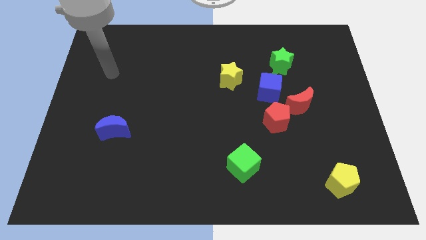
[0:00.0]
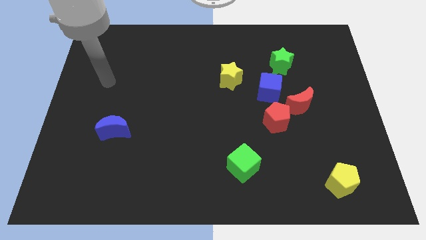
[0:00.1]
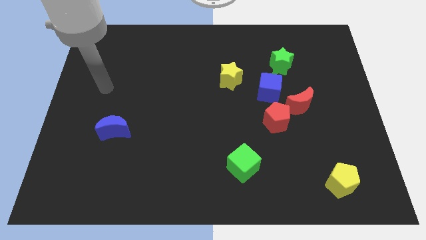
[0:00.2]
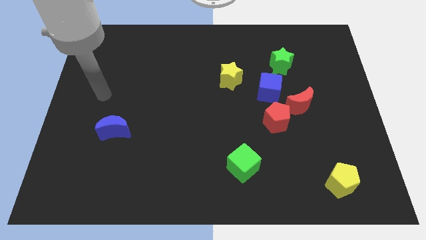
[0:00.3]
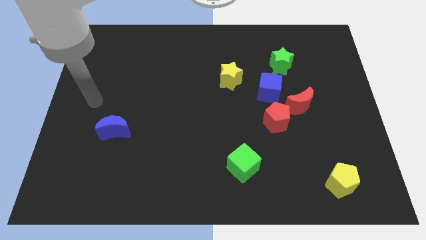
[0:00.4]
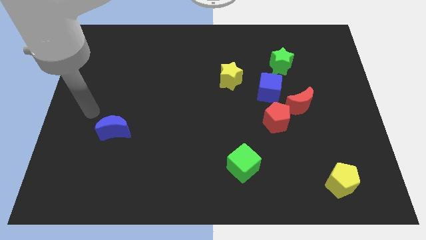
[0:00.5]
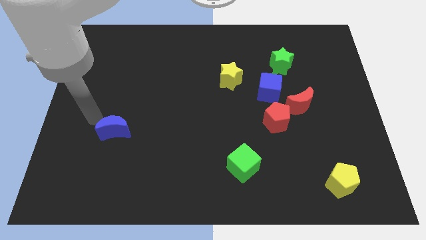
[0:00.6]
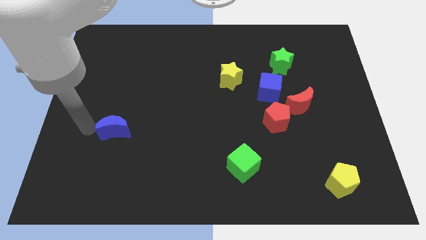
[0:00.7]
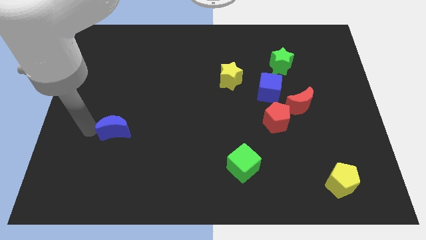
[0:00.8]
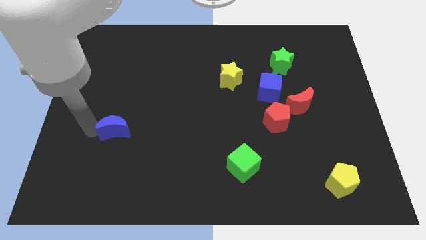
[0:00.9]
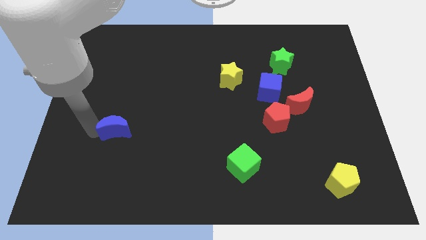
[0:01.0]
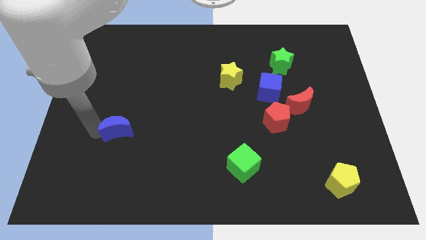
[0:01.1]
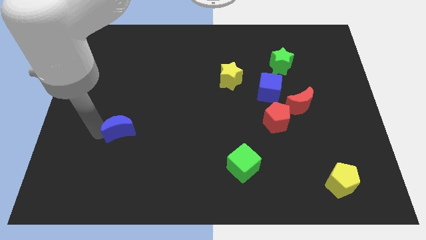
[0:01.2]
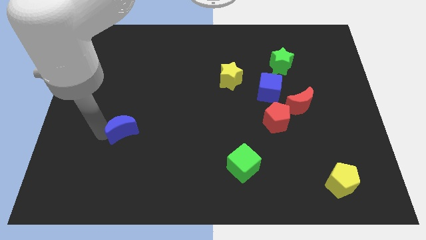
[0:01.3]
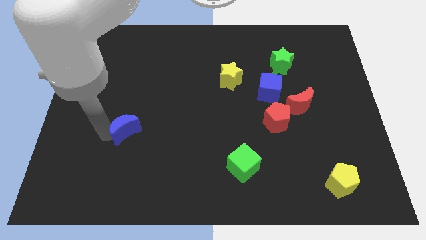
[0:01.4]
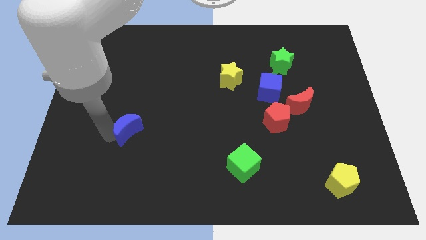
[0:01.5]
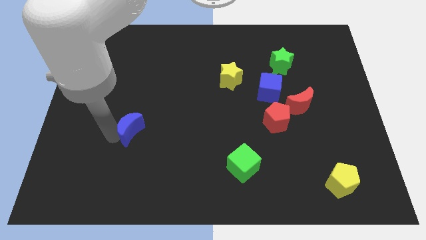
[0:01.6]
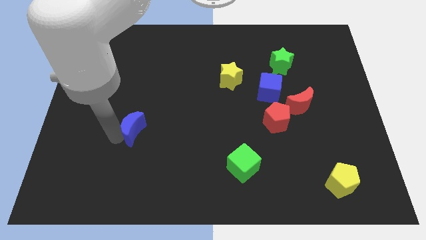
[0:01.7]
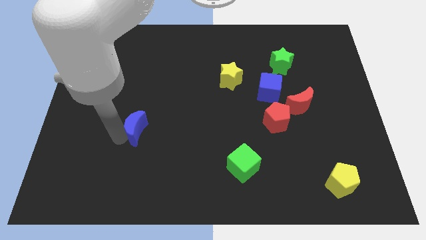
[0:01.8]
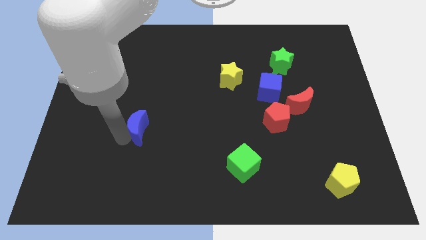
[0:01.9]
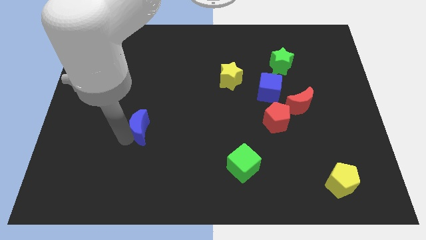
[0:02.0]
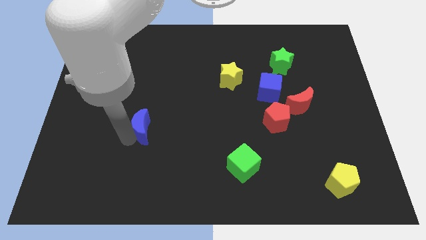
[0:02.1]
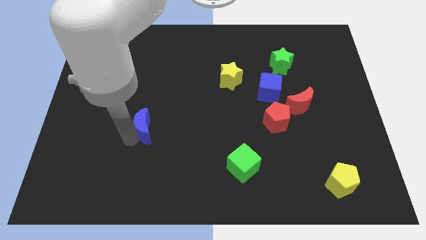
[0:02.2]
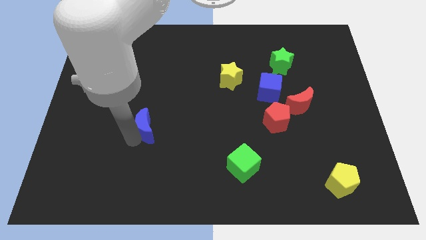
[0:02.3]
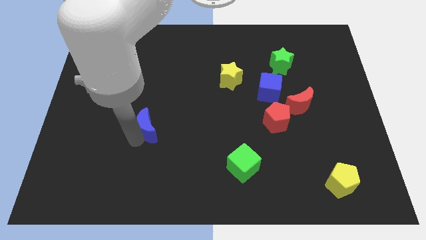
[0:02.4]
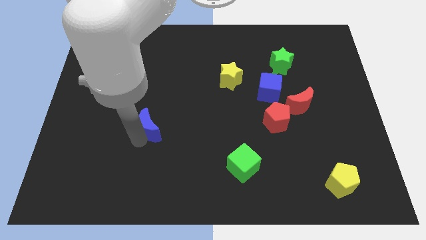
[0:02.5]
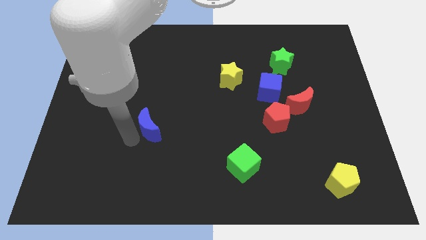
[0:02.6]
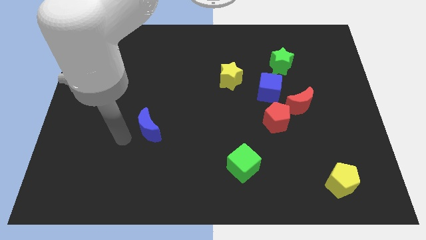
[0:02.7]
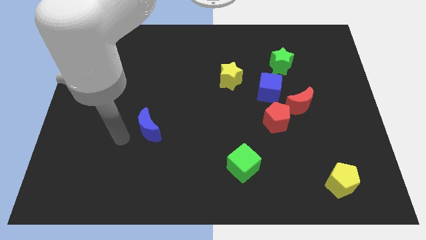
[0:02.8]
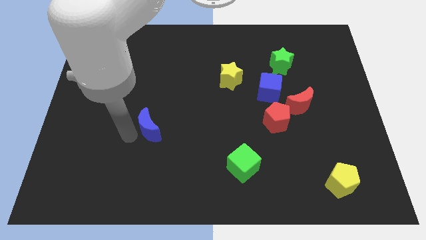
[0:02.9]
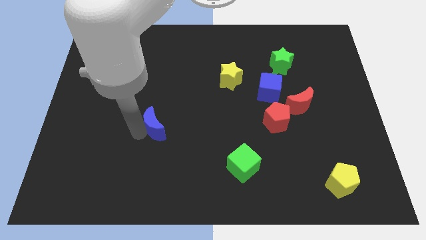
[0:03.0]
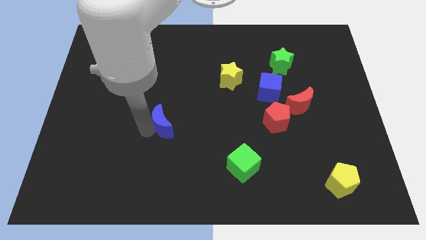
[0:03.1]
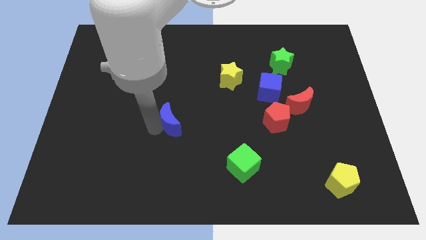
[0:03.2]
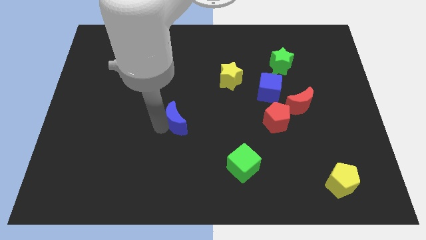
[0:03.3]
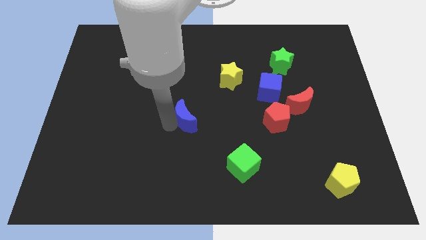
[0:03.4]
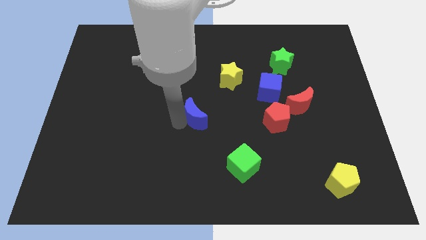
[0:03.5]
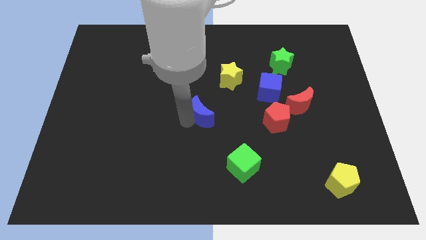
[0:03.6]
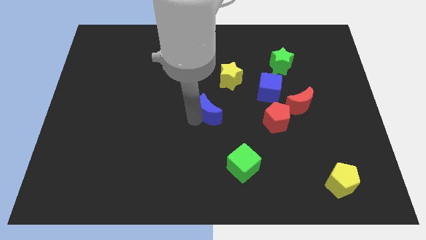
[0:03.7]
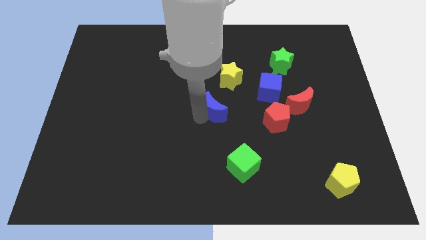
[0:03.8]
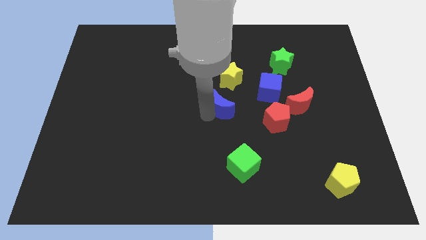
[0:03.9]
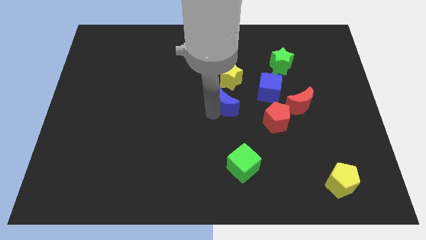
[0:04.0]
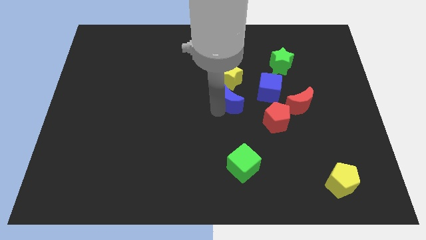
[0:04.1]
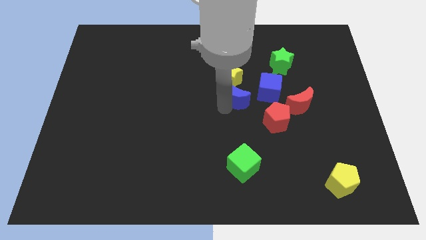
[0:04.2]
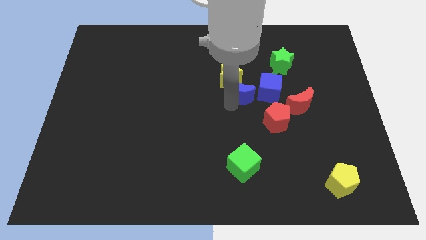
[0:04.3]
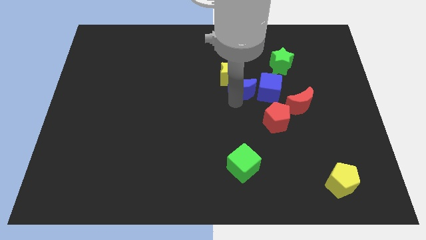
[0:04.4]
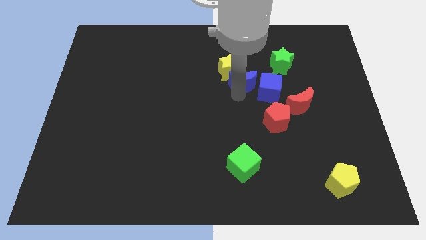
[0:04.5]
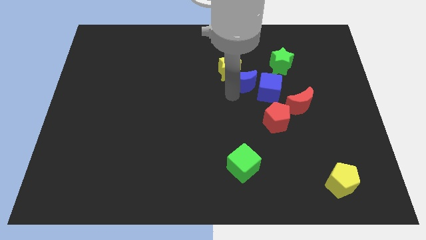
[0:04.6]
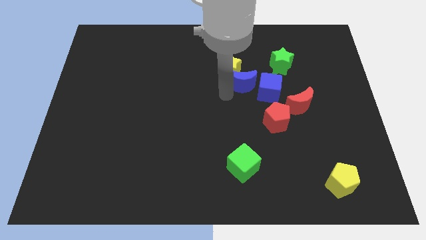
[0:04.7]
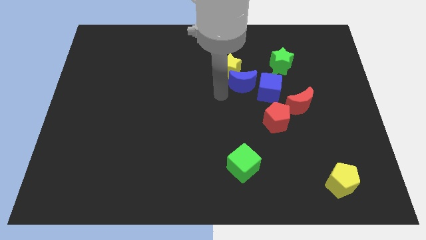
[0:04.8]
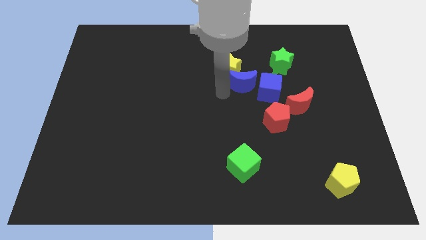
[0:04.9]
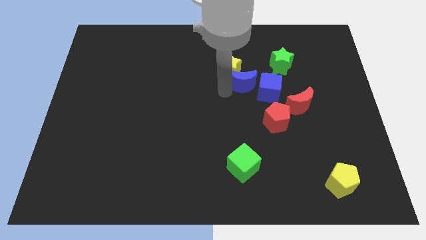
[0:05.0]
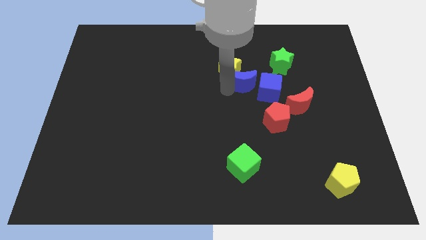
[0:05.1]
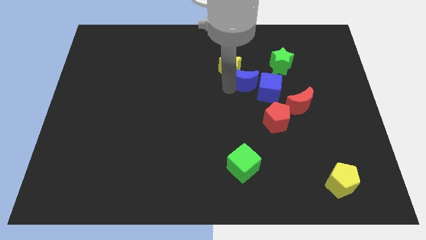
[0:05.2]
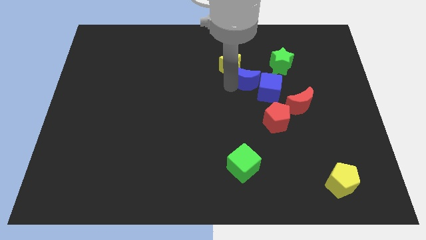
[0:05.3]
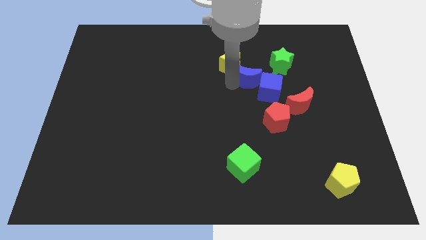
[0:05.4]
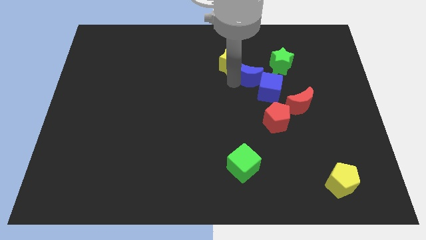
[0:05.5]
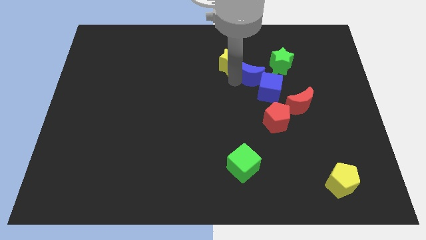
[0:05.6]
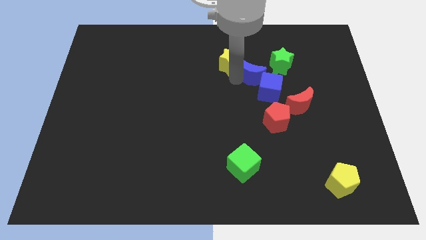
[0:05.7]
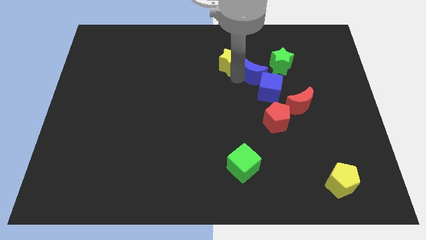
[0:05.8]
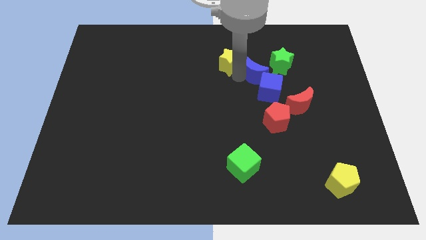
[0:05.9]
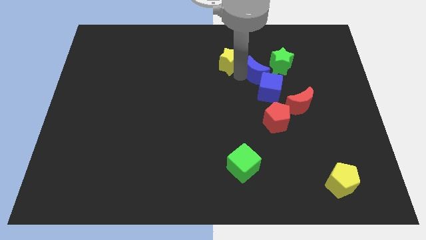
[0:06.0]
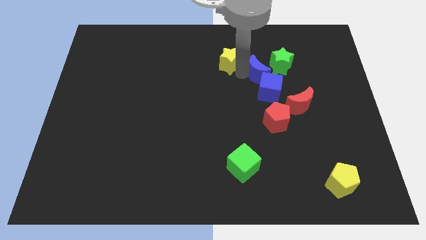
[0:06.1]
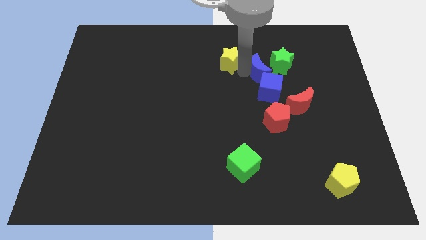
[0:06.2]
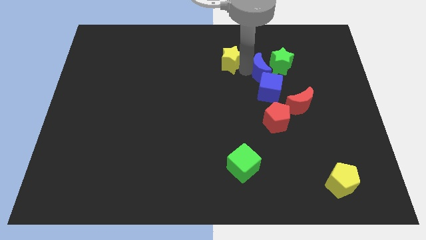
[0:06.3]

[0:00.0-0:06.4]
slide the blue moon next to the green star
